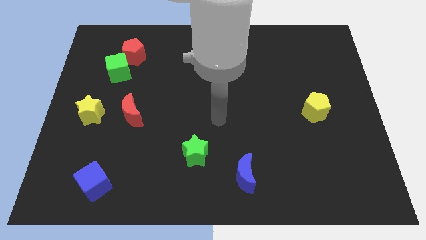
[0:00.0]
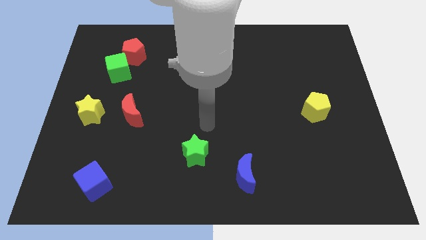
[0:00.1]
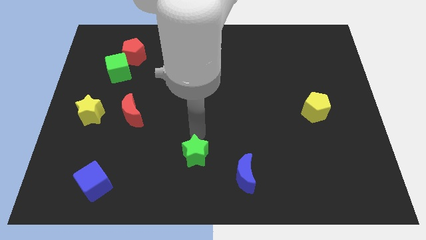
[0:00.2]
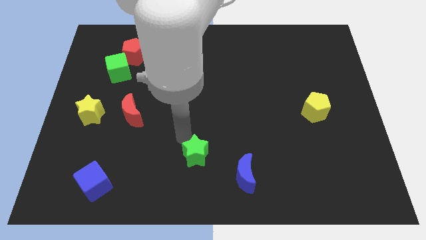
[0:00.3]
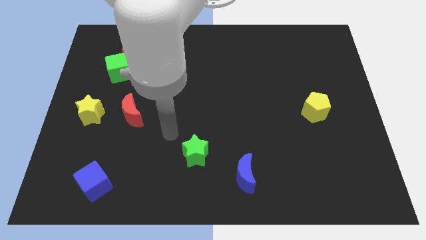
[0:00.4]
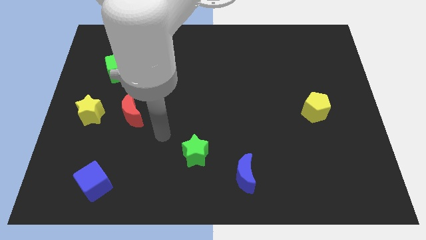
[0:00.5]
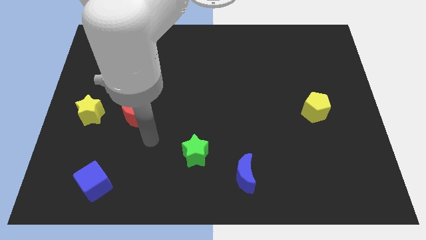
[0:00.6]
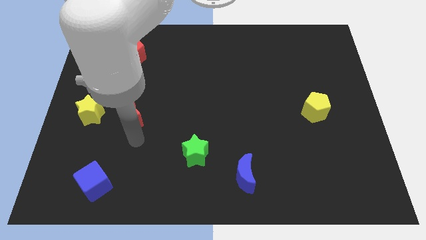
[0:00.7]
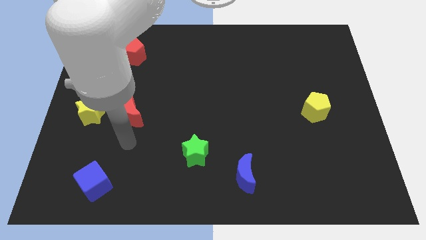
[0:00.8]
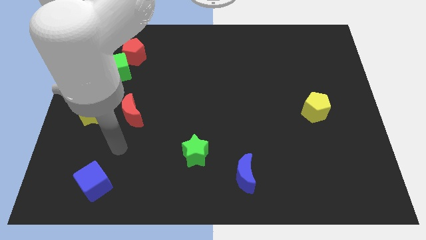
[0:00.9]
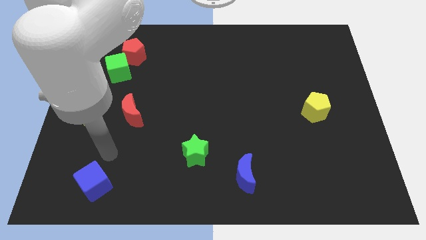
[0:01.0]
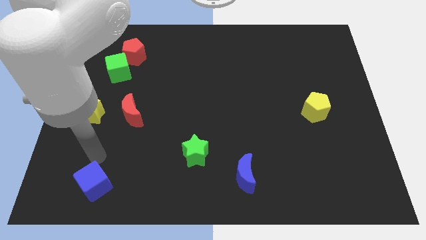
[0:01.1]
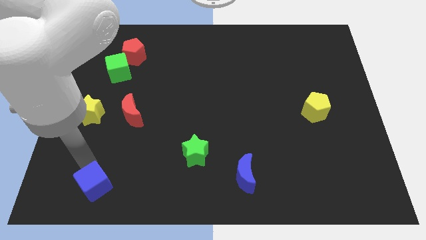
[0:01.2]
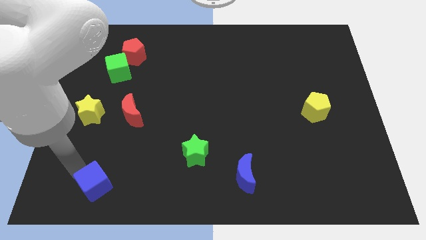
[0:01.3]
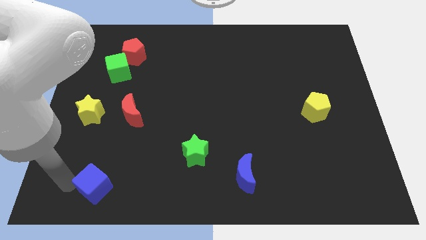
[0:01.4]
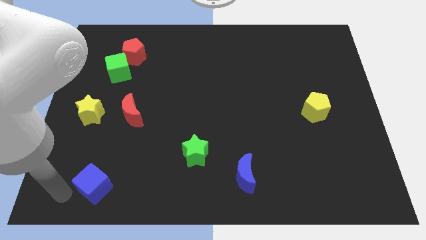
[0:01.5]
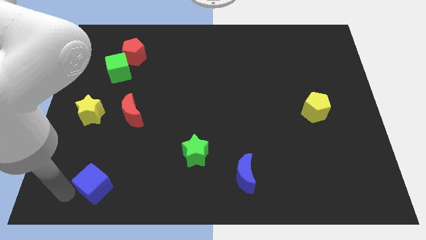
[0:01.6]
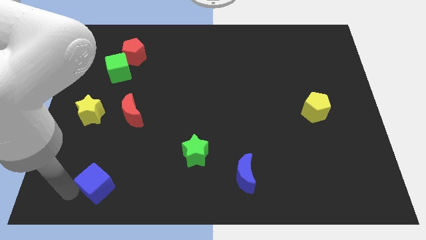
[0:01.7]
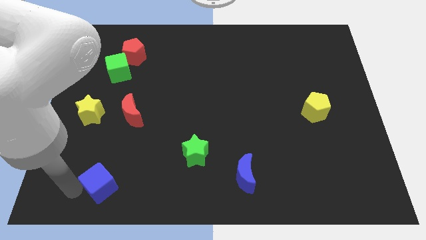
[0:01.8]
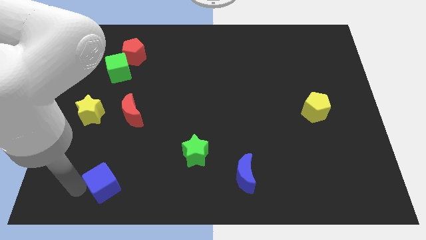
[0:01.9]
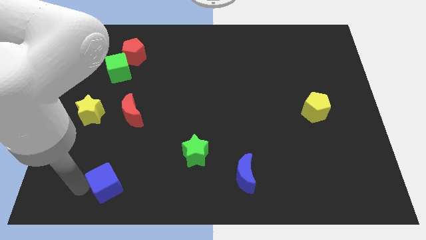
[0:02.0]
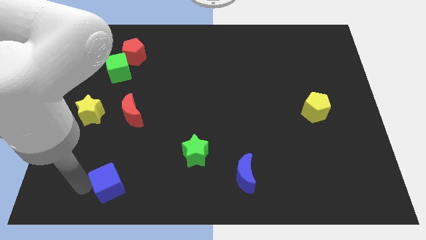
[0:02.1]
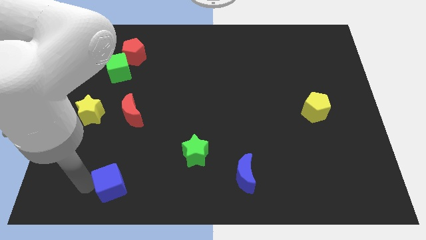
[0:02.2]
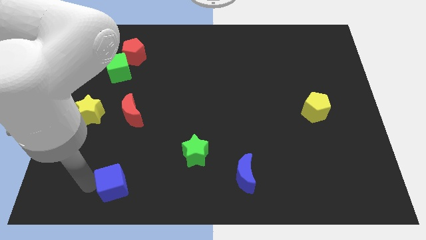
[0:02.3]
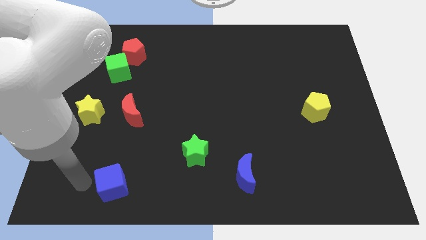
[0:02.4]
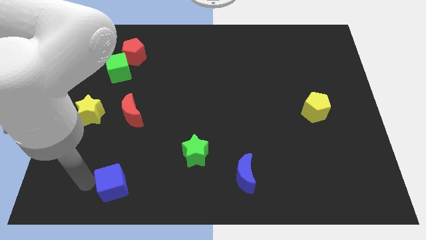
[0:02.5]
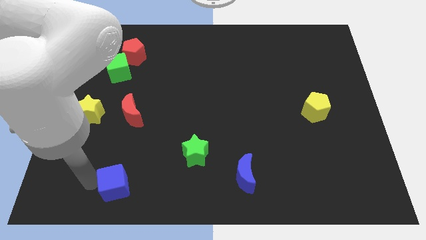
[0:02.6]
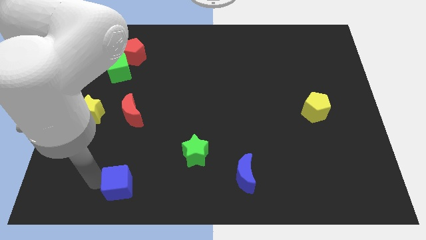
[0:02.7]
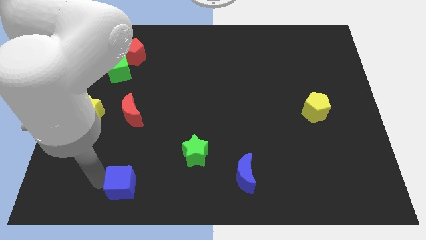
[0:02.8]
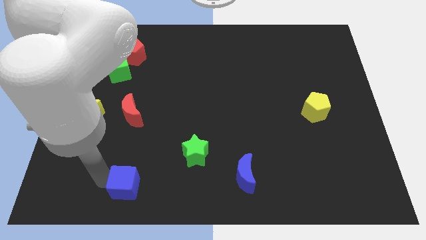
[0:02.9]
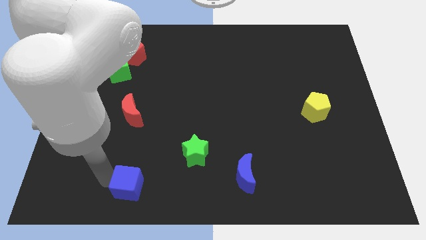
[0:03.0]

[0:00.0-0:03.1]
move the blue cube a little bit to the right

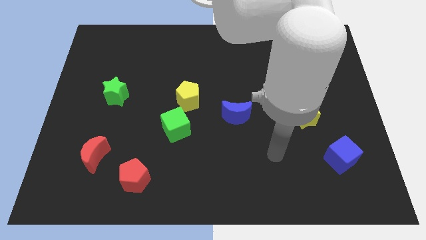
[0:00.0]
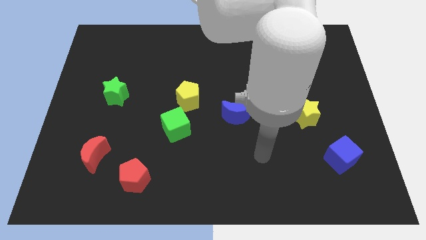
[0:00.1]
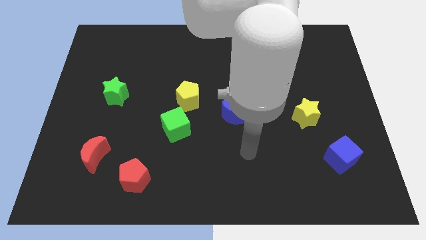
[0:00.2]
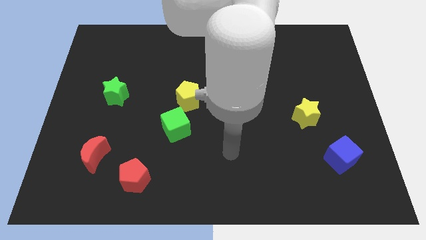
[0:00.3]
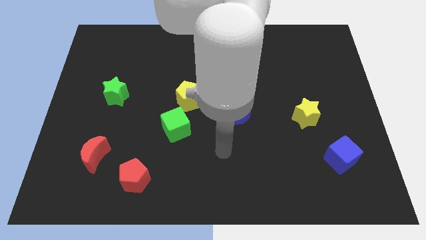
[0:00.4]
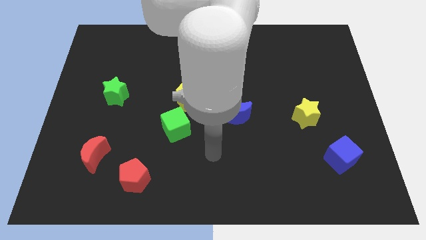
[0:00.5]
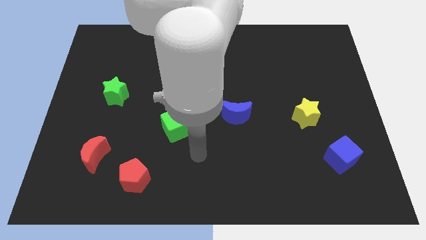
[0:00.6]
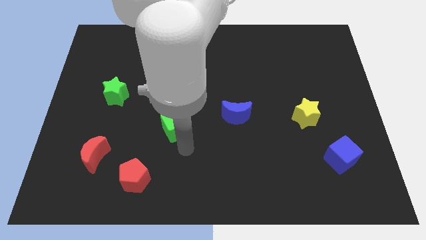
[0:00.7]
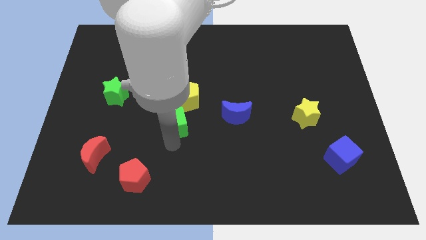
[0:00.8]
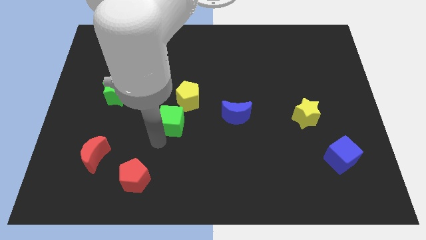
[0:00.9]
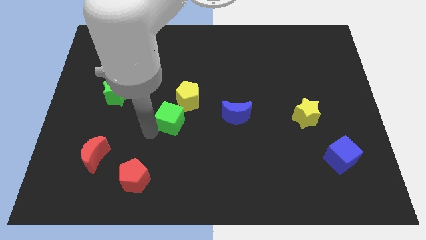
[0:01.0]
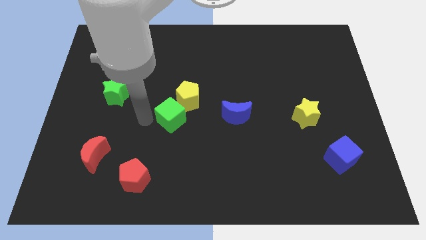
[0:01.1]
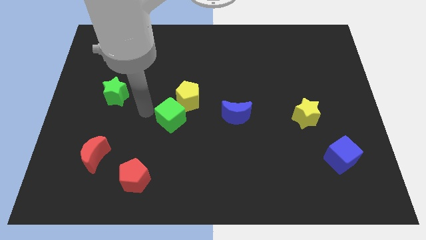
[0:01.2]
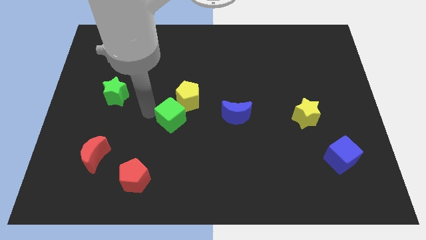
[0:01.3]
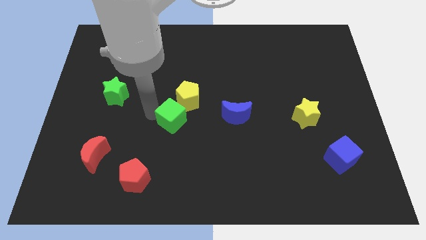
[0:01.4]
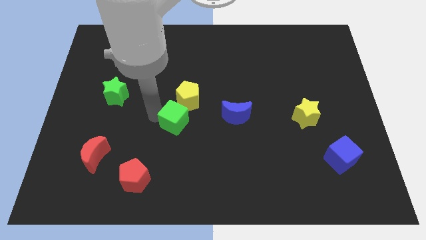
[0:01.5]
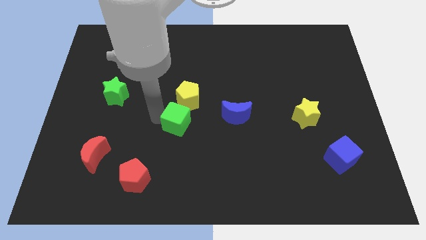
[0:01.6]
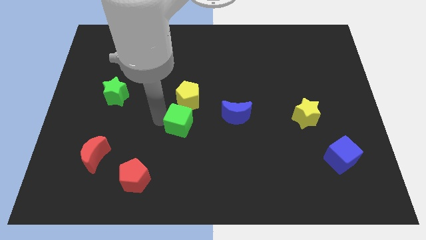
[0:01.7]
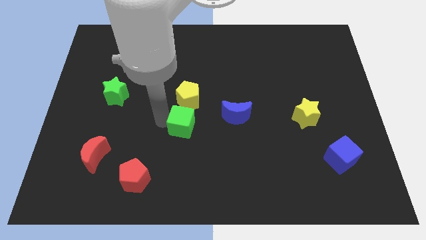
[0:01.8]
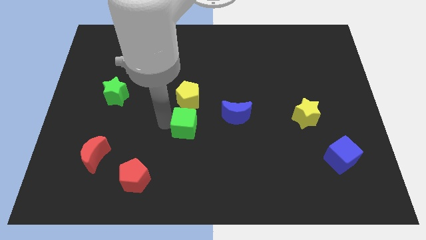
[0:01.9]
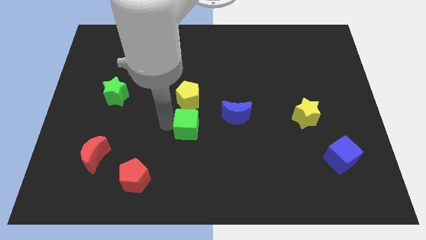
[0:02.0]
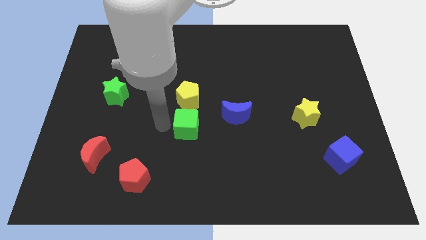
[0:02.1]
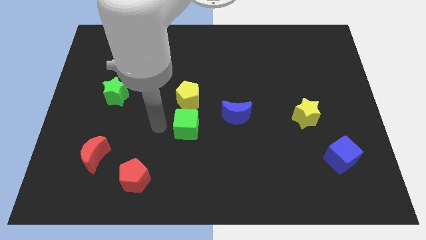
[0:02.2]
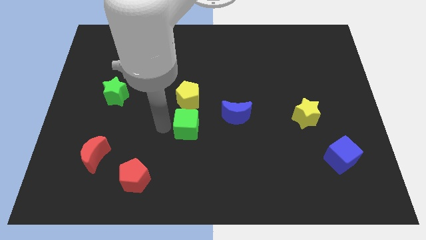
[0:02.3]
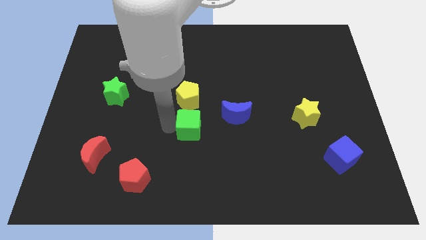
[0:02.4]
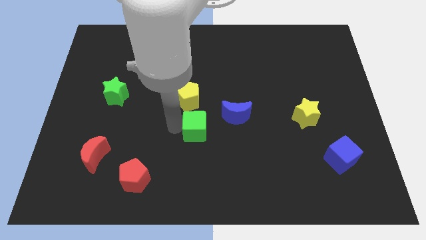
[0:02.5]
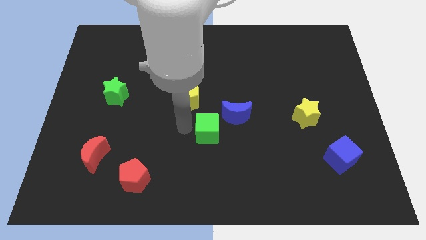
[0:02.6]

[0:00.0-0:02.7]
slide the green cube right a bit

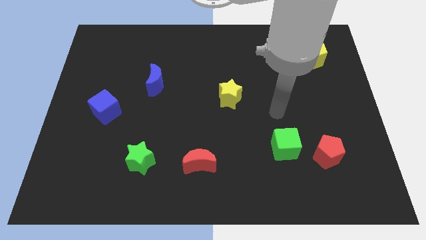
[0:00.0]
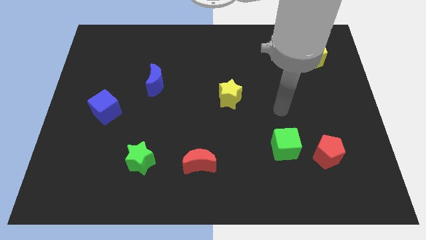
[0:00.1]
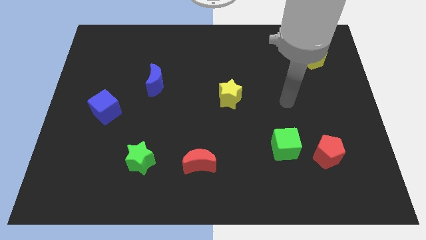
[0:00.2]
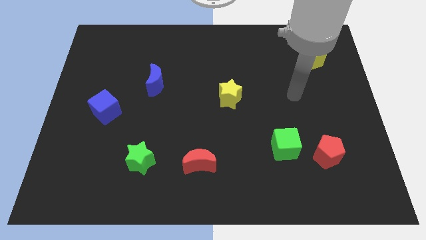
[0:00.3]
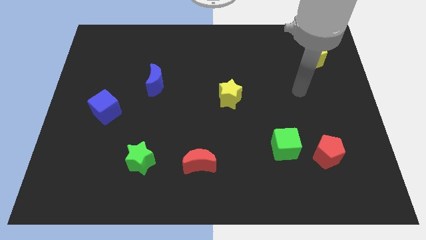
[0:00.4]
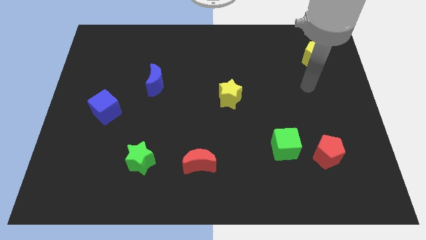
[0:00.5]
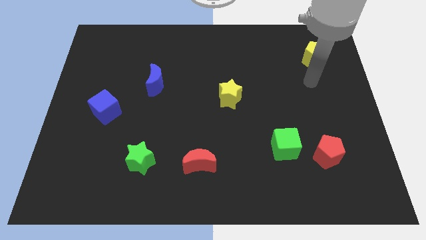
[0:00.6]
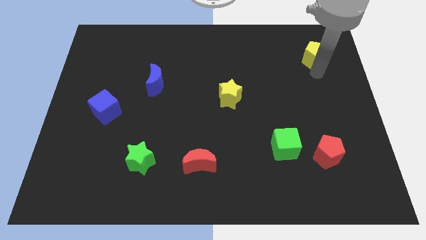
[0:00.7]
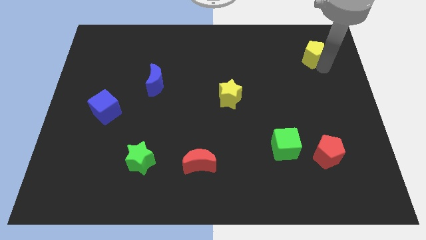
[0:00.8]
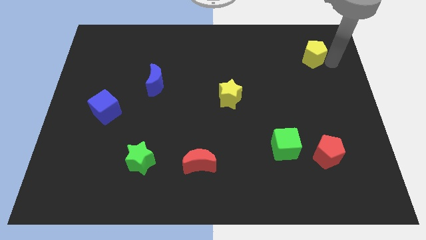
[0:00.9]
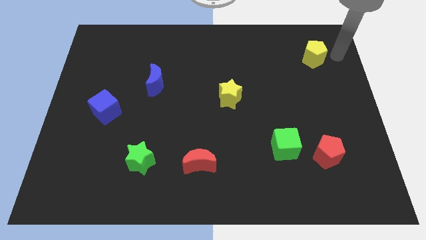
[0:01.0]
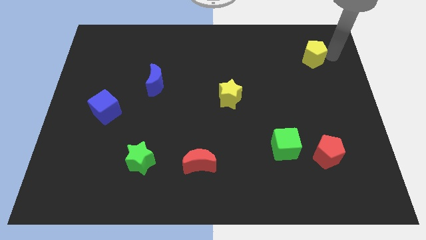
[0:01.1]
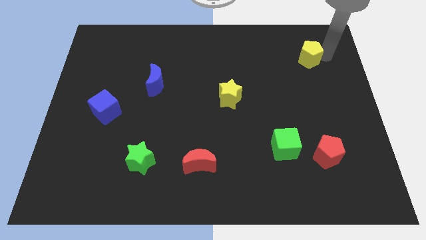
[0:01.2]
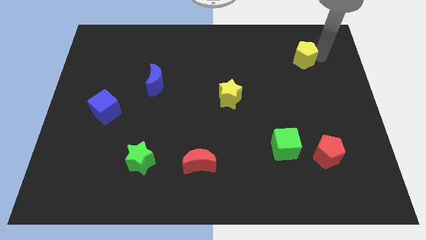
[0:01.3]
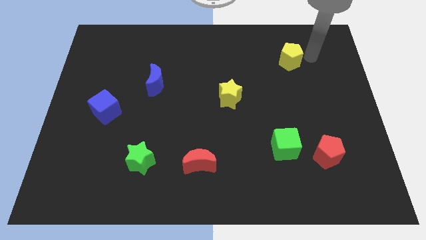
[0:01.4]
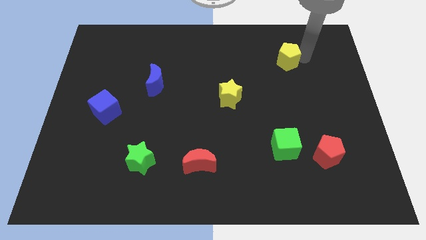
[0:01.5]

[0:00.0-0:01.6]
slide the yellow pentagon a little to the left
